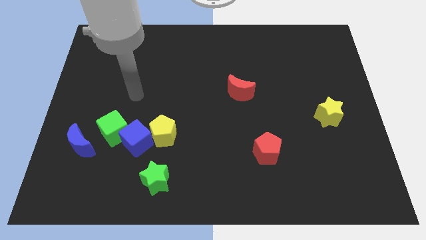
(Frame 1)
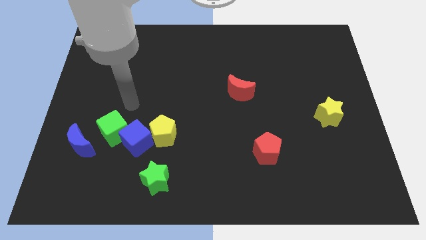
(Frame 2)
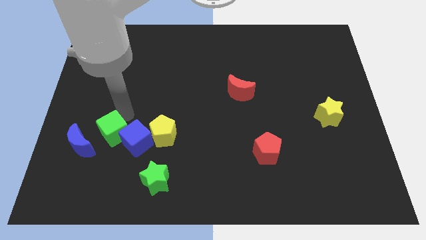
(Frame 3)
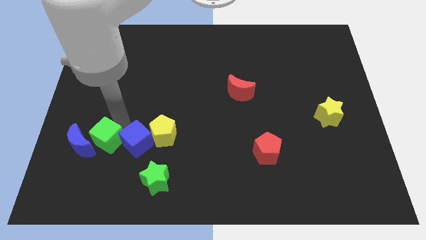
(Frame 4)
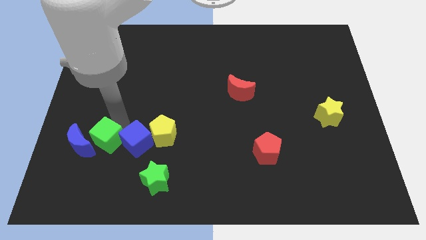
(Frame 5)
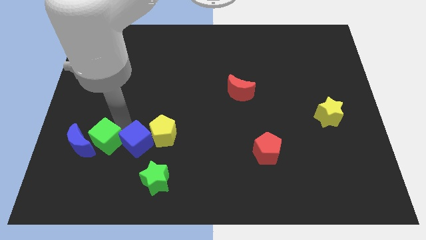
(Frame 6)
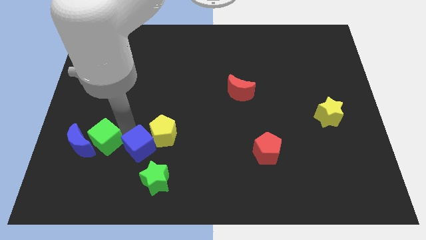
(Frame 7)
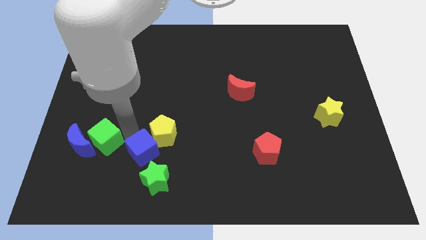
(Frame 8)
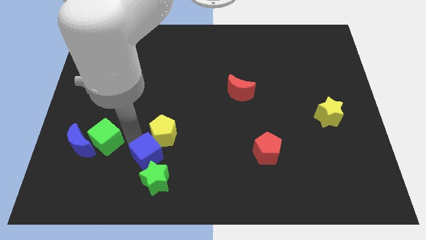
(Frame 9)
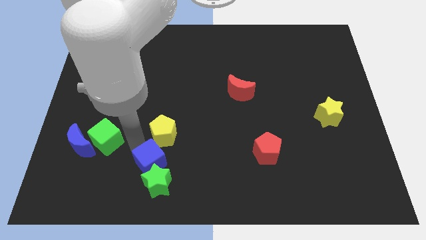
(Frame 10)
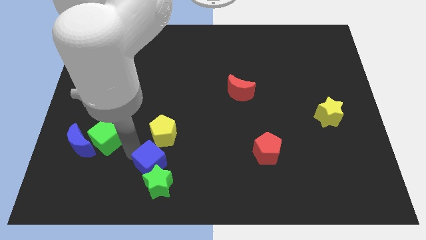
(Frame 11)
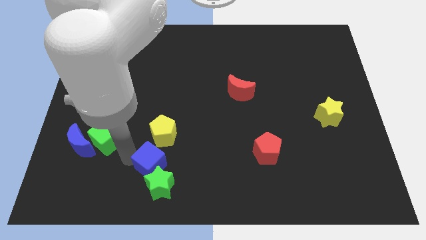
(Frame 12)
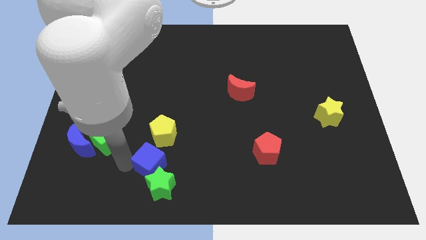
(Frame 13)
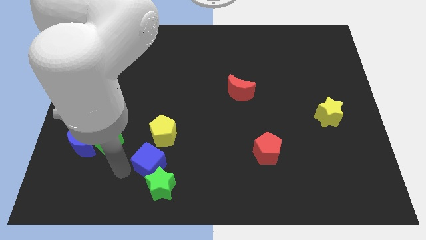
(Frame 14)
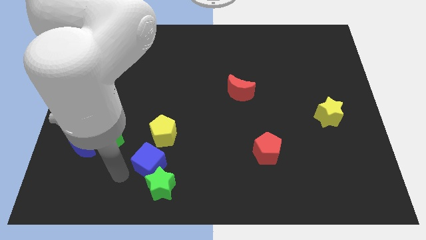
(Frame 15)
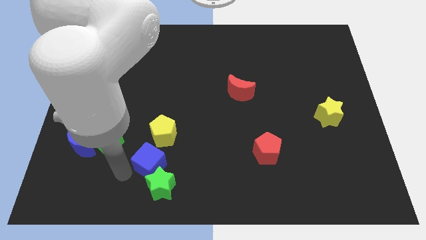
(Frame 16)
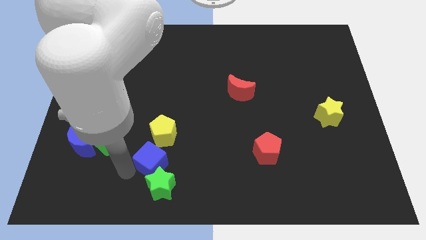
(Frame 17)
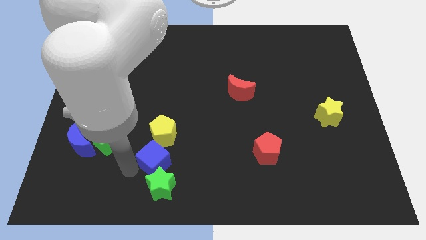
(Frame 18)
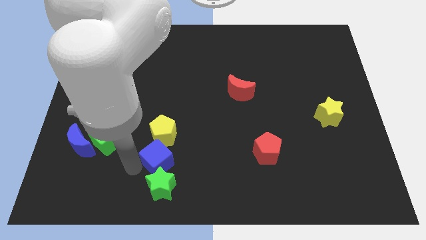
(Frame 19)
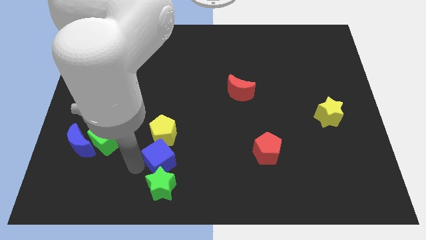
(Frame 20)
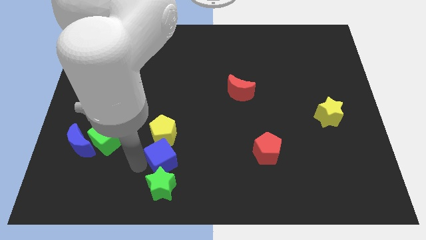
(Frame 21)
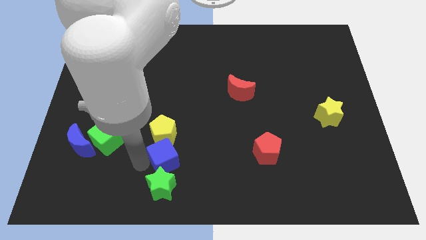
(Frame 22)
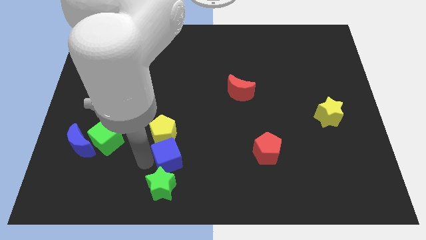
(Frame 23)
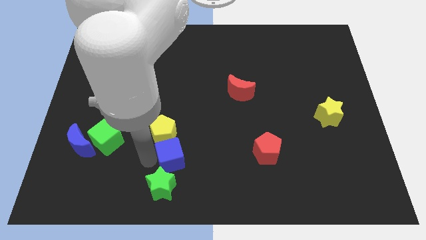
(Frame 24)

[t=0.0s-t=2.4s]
slide the blue cube to the right a little

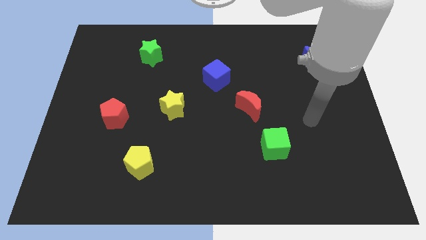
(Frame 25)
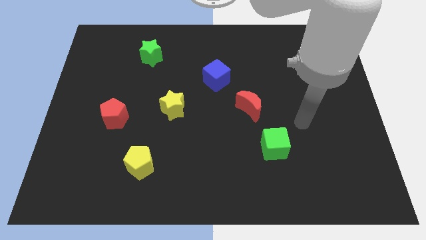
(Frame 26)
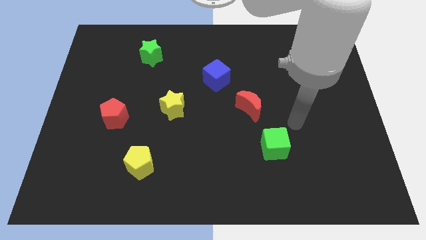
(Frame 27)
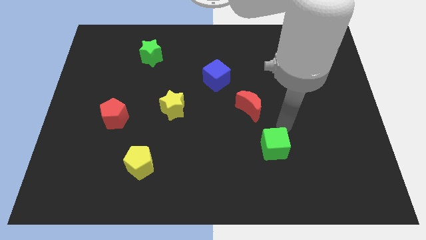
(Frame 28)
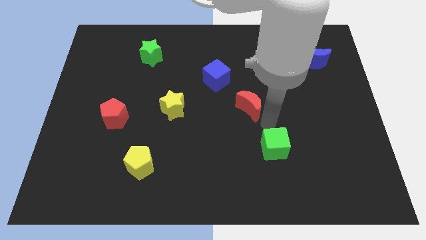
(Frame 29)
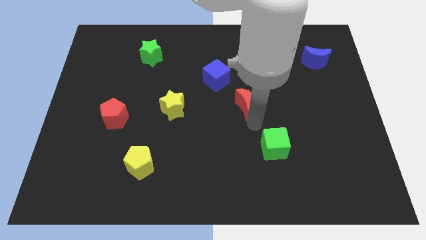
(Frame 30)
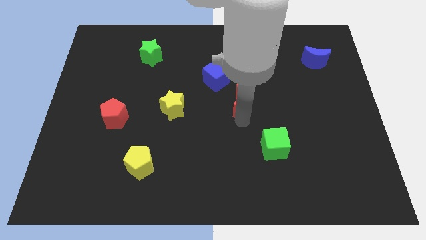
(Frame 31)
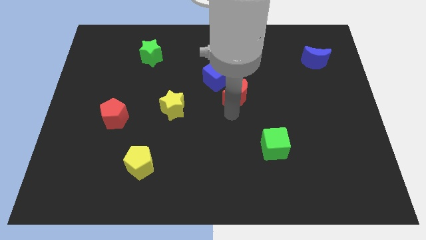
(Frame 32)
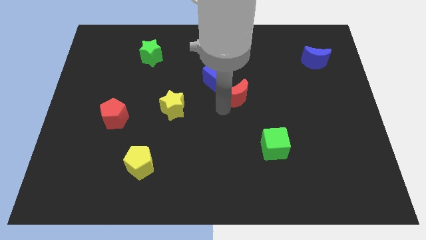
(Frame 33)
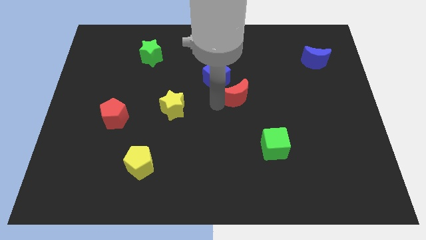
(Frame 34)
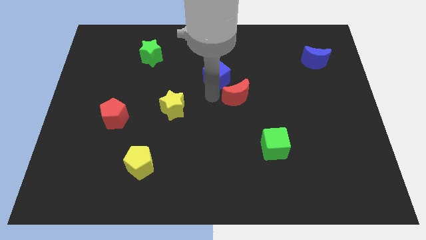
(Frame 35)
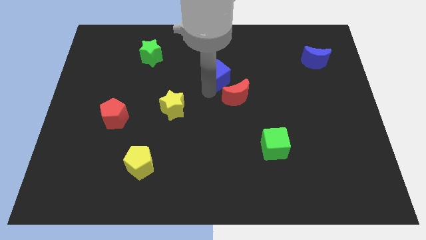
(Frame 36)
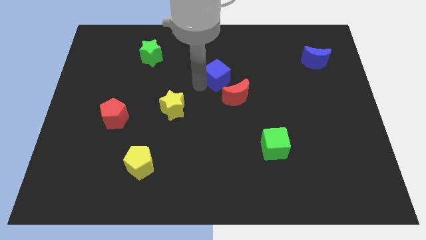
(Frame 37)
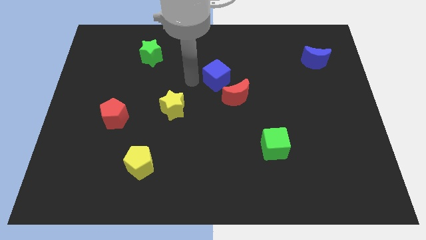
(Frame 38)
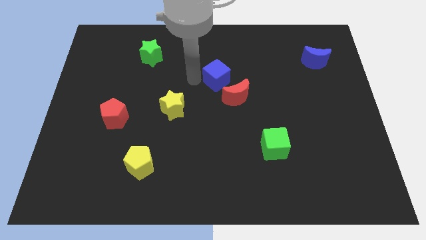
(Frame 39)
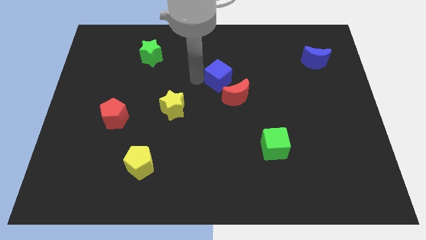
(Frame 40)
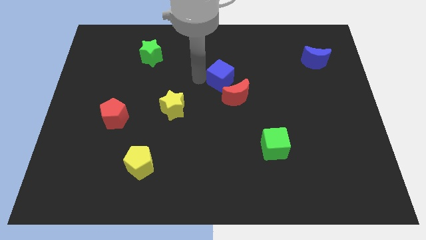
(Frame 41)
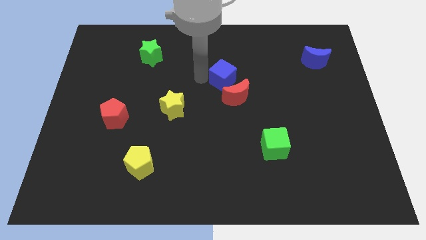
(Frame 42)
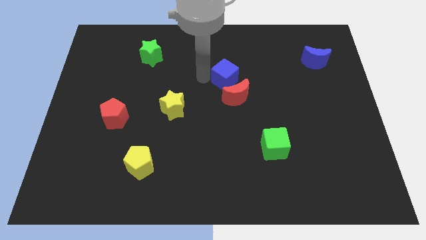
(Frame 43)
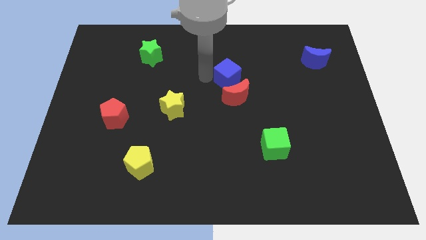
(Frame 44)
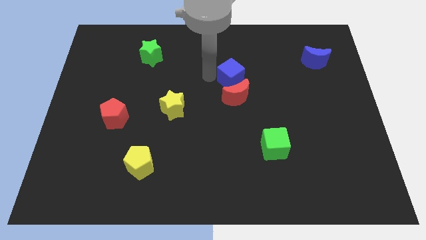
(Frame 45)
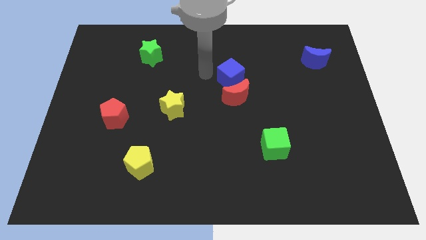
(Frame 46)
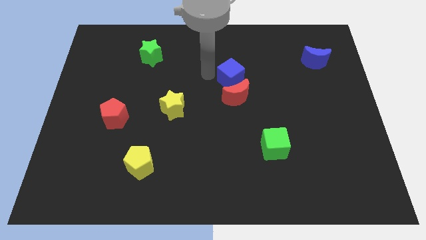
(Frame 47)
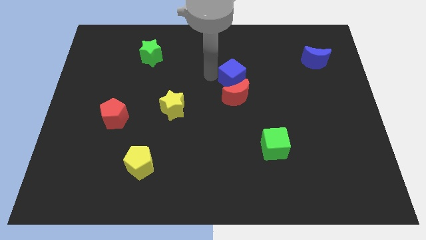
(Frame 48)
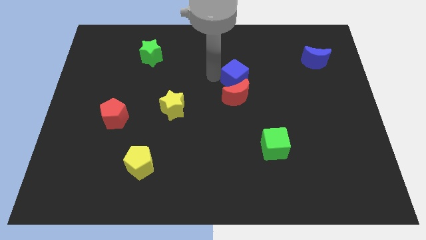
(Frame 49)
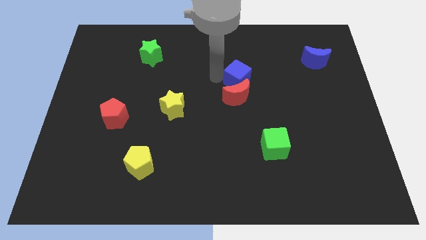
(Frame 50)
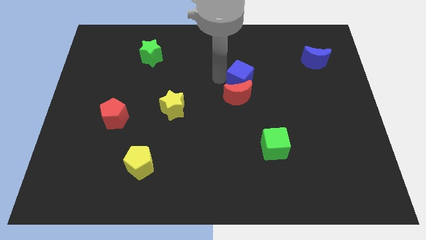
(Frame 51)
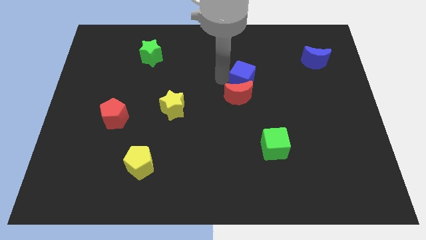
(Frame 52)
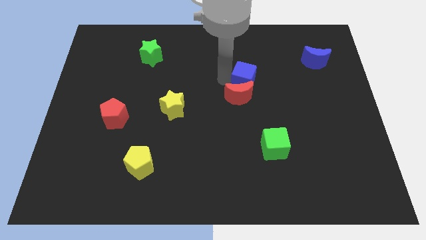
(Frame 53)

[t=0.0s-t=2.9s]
push the blue cube right a little

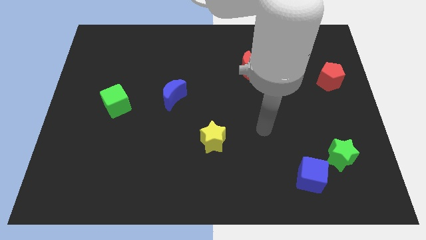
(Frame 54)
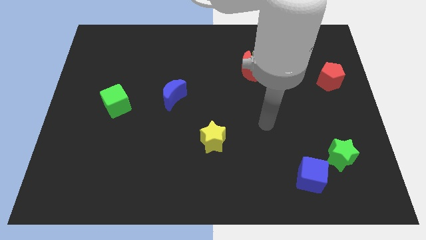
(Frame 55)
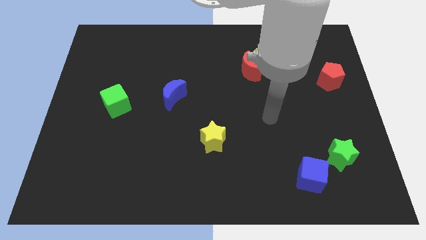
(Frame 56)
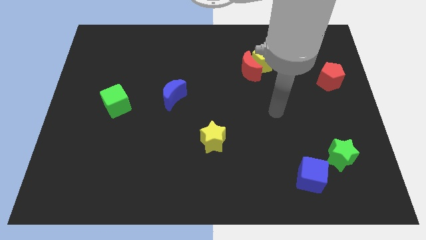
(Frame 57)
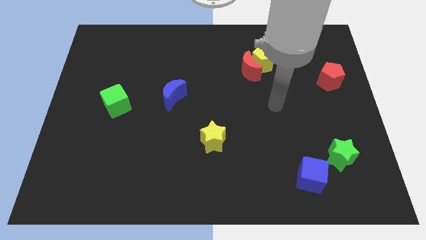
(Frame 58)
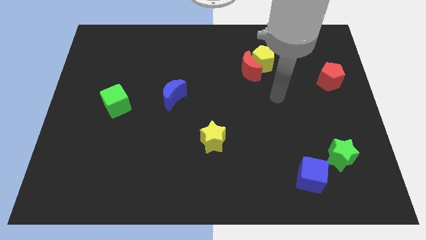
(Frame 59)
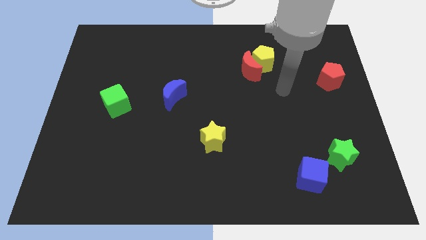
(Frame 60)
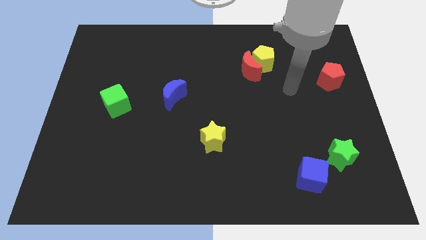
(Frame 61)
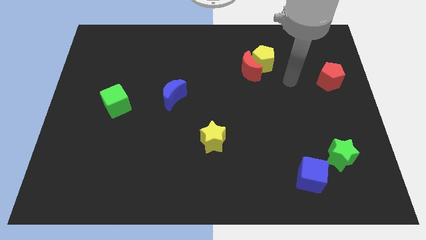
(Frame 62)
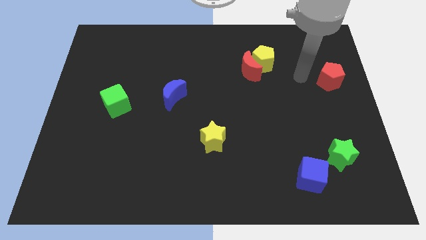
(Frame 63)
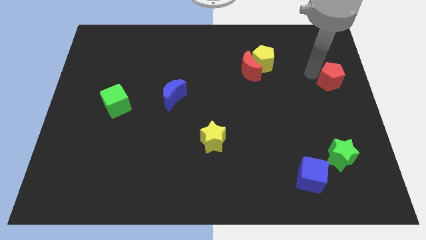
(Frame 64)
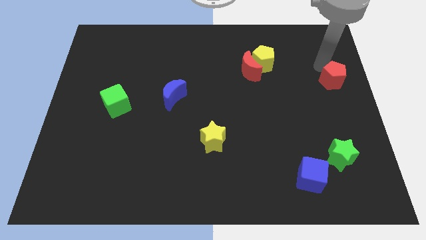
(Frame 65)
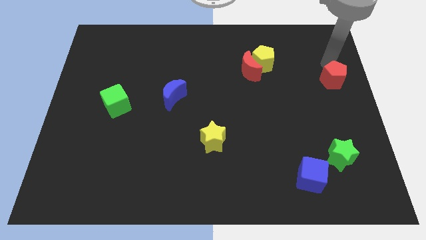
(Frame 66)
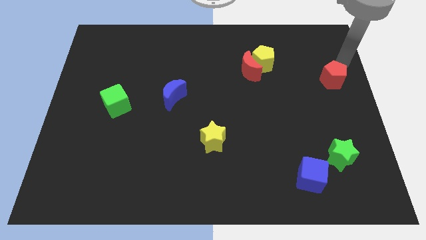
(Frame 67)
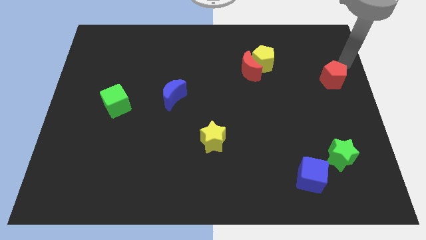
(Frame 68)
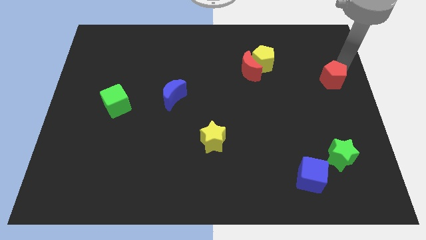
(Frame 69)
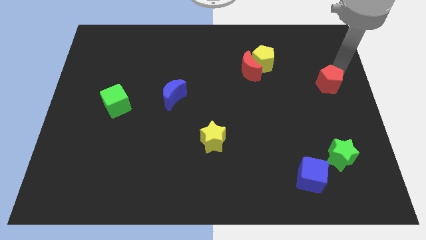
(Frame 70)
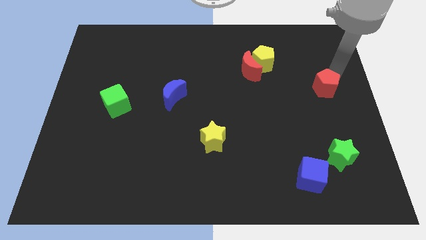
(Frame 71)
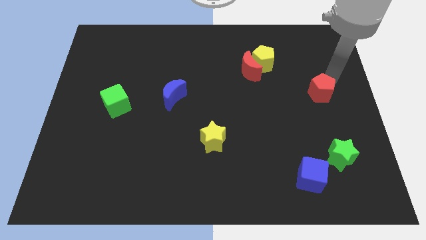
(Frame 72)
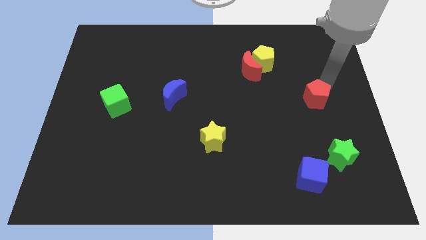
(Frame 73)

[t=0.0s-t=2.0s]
slightly slide the red pentagon downwards and left

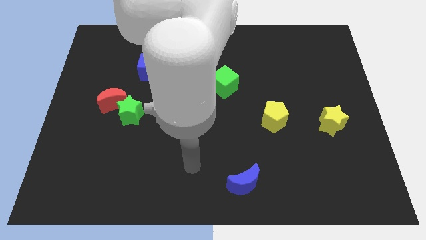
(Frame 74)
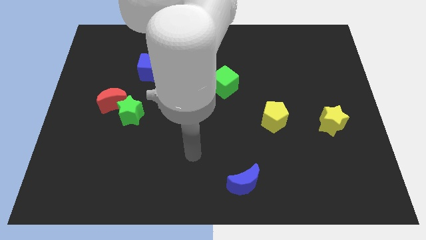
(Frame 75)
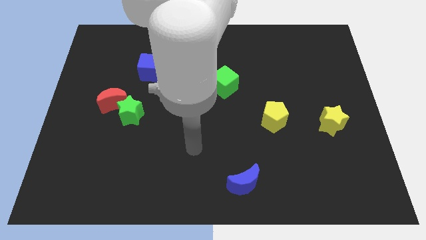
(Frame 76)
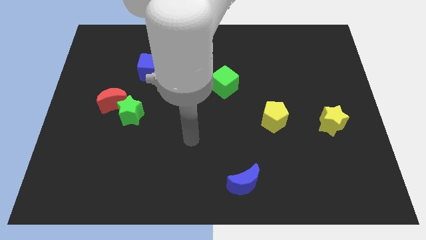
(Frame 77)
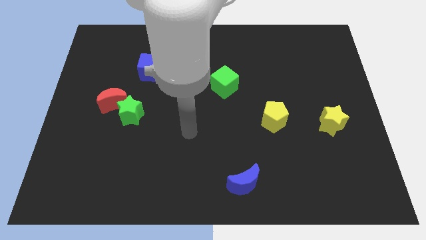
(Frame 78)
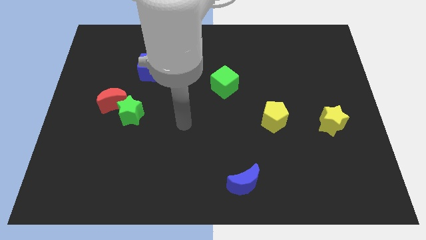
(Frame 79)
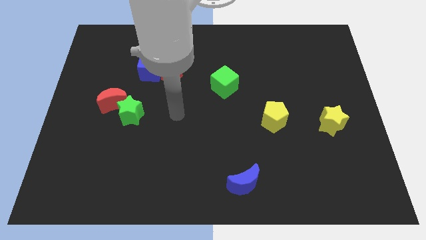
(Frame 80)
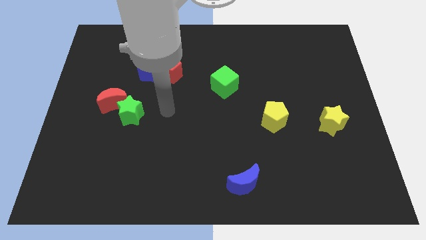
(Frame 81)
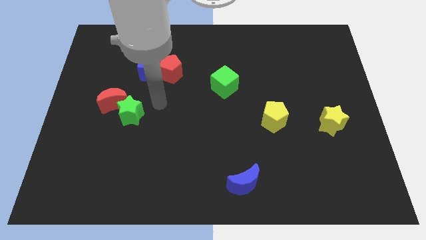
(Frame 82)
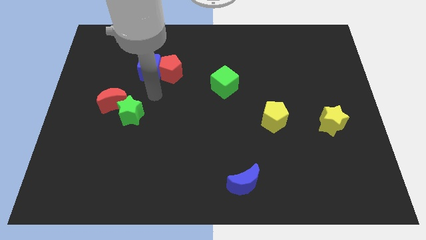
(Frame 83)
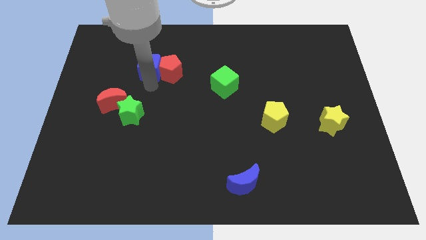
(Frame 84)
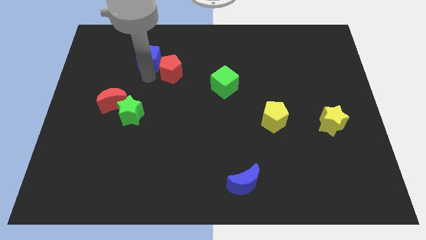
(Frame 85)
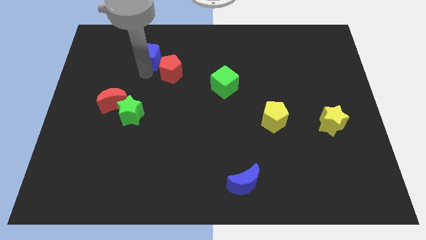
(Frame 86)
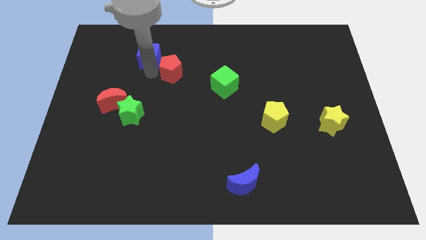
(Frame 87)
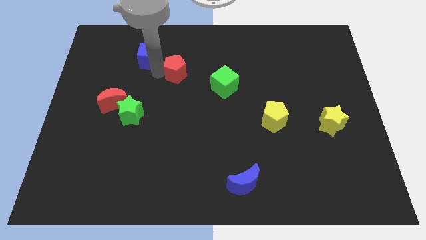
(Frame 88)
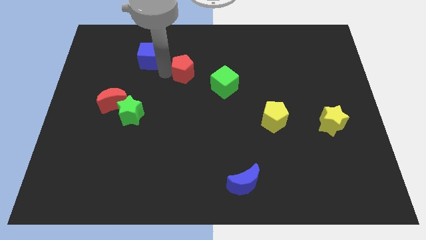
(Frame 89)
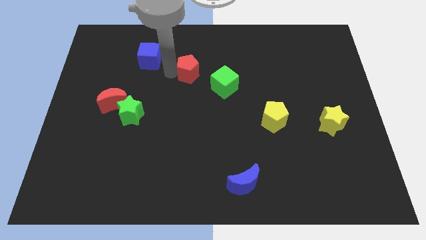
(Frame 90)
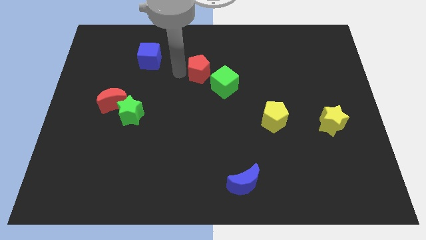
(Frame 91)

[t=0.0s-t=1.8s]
move the red pentagon a little bit to the right
